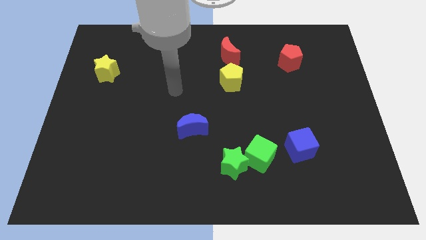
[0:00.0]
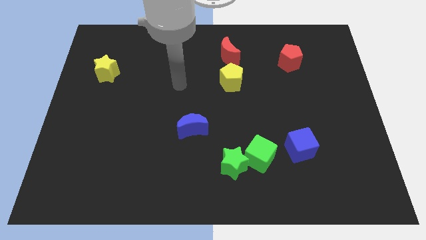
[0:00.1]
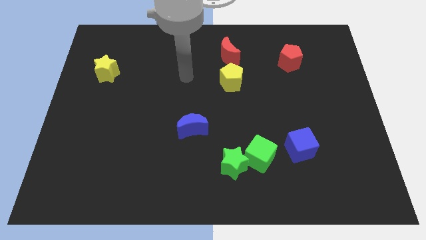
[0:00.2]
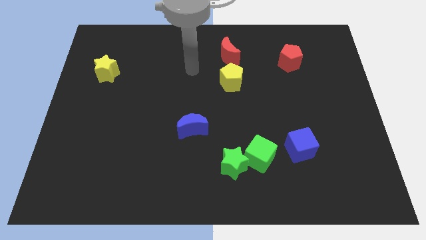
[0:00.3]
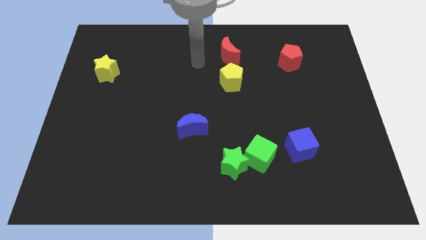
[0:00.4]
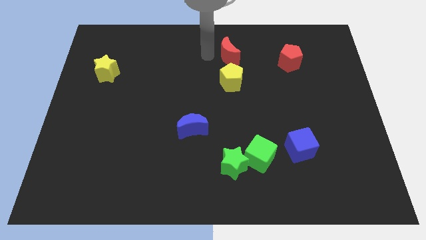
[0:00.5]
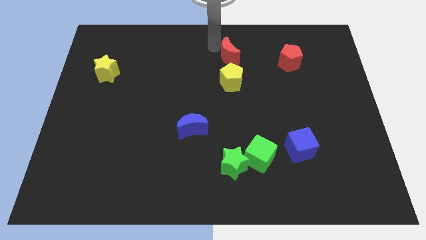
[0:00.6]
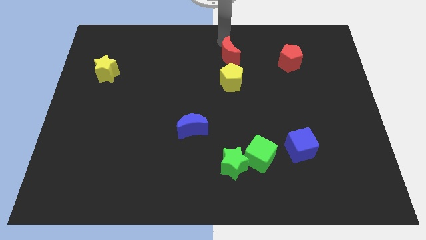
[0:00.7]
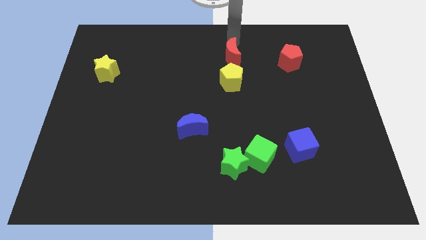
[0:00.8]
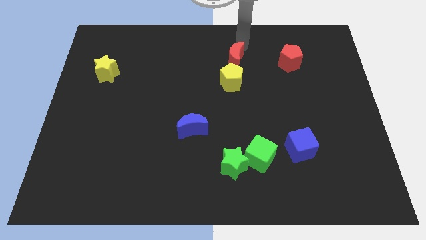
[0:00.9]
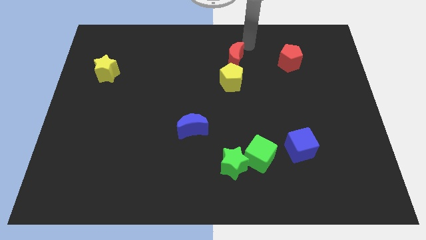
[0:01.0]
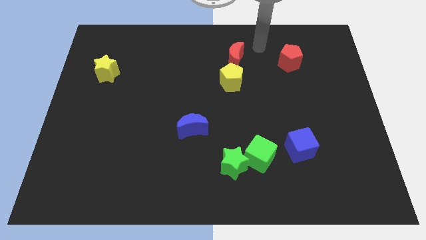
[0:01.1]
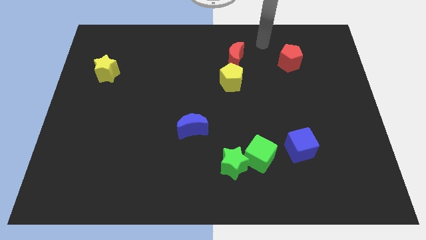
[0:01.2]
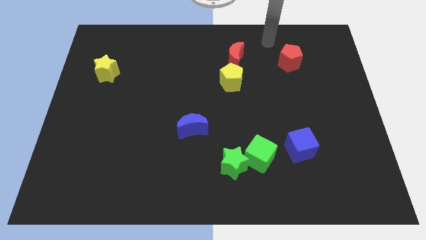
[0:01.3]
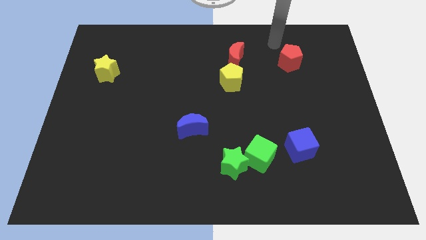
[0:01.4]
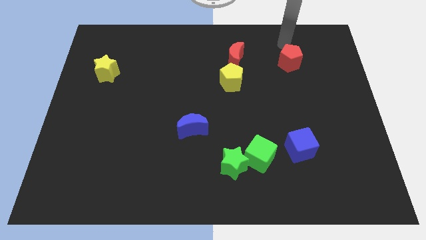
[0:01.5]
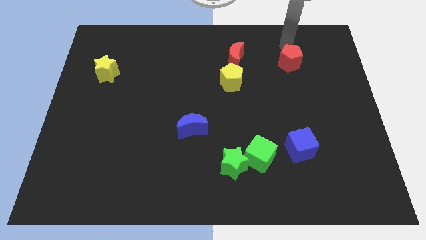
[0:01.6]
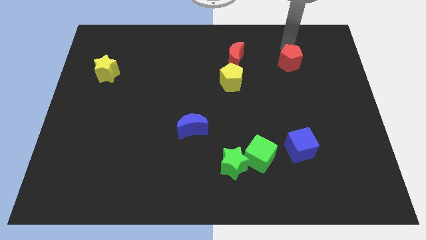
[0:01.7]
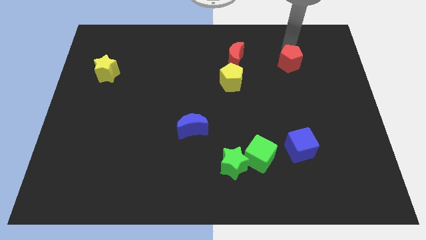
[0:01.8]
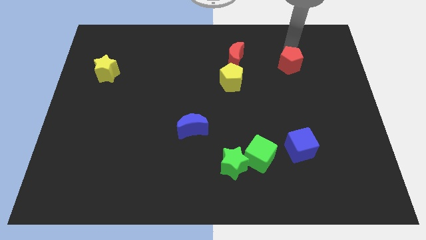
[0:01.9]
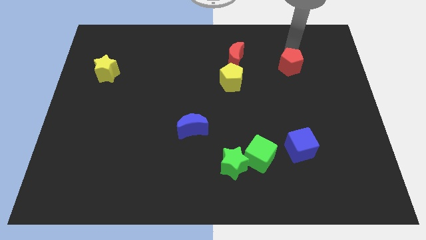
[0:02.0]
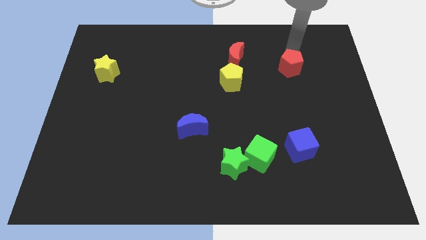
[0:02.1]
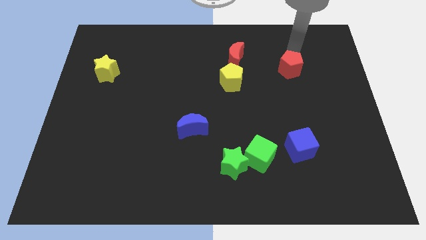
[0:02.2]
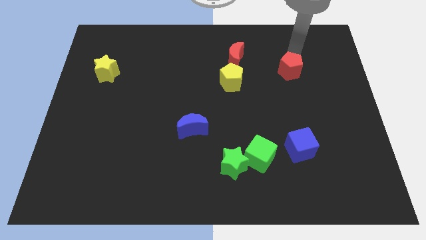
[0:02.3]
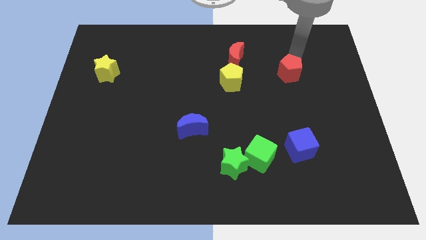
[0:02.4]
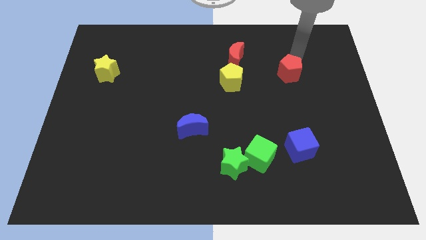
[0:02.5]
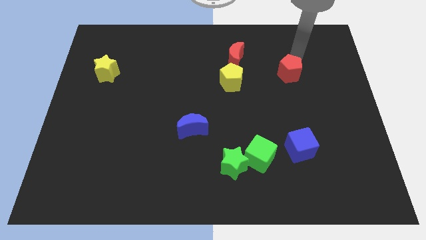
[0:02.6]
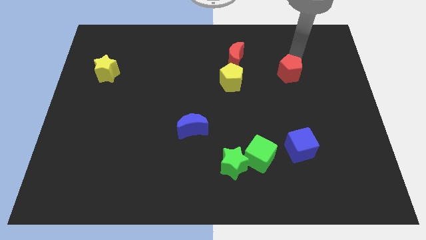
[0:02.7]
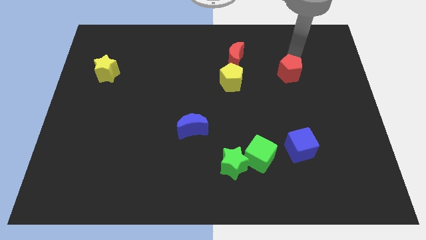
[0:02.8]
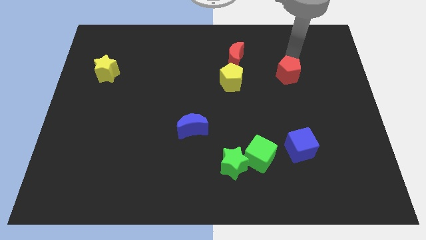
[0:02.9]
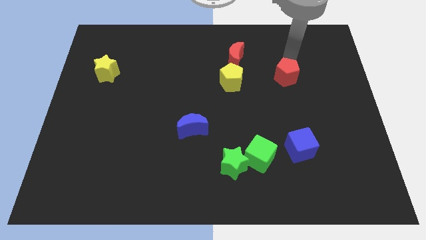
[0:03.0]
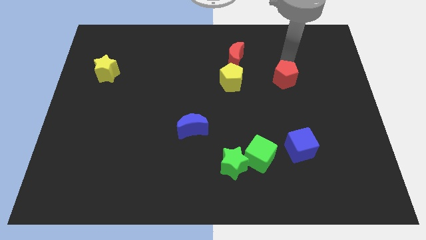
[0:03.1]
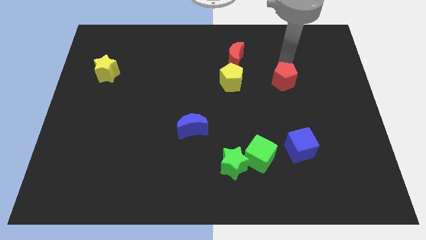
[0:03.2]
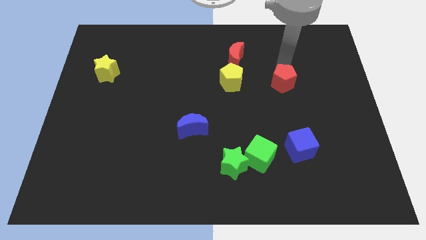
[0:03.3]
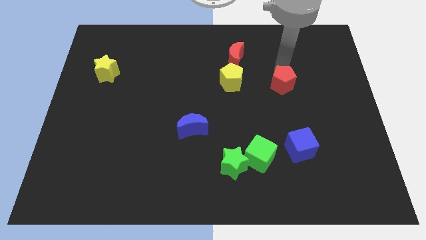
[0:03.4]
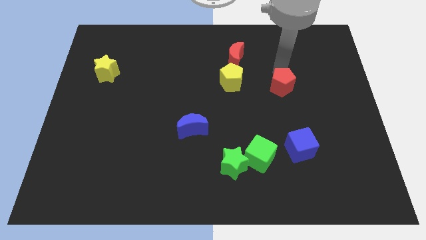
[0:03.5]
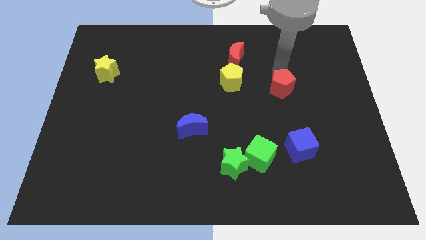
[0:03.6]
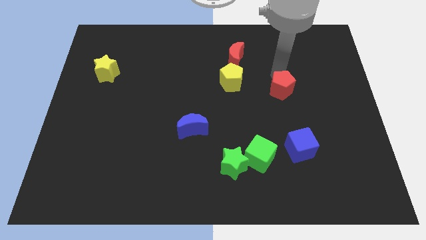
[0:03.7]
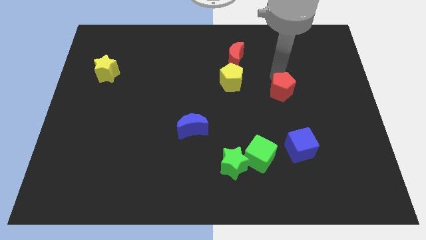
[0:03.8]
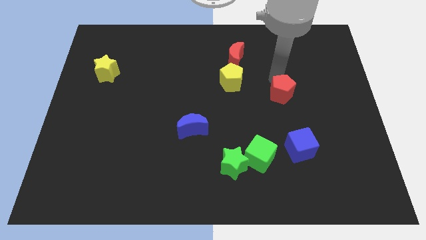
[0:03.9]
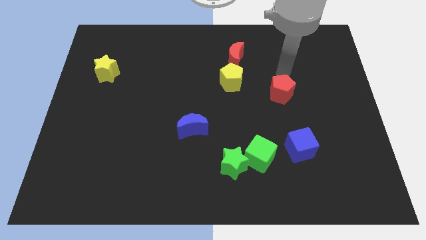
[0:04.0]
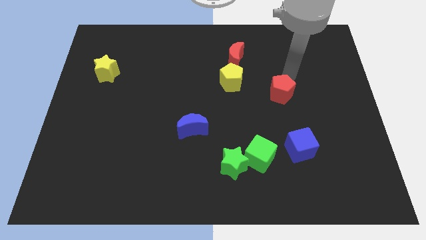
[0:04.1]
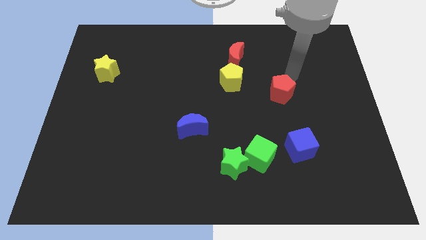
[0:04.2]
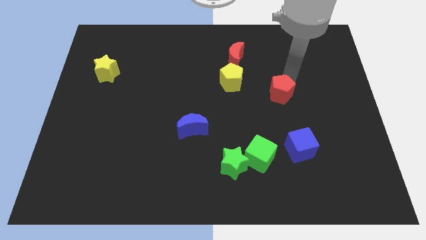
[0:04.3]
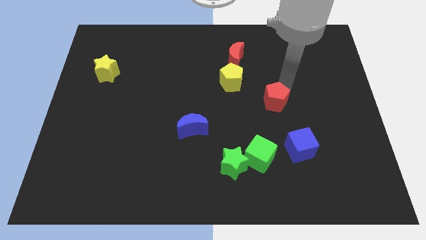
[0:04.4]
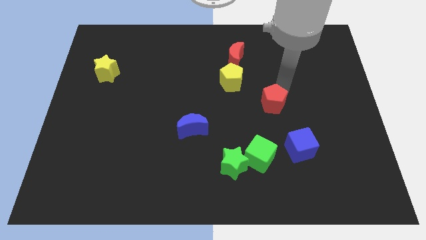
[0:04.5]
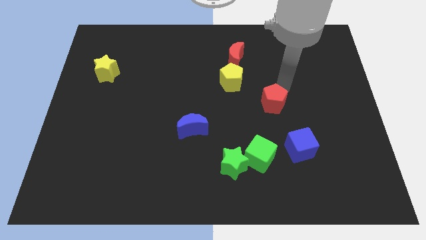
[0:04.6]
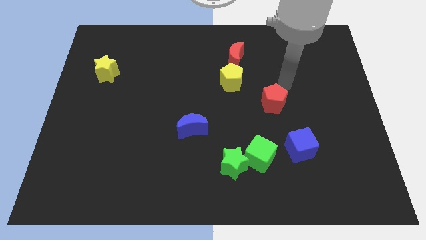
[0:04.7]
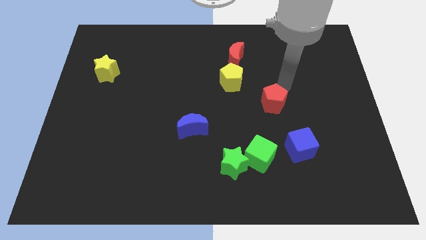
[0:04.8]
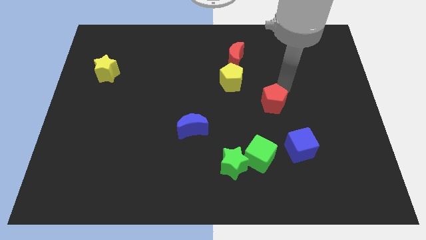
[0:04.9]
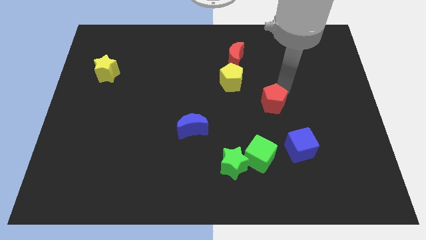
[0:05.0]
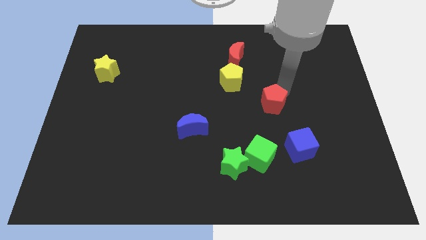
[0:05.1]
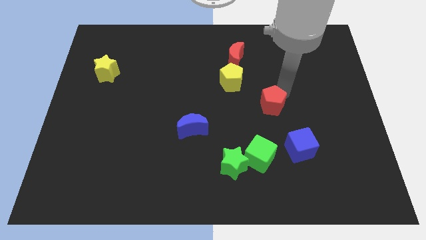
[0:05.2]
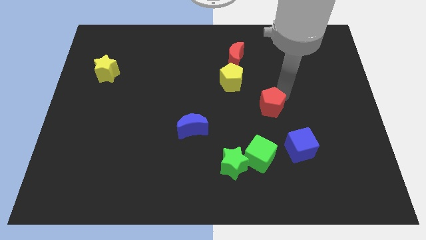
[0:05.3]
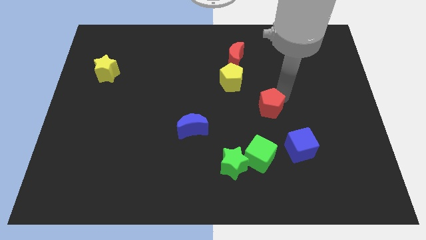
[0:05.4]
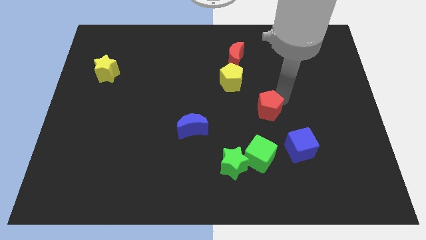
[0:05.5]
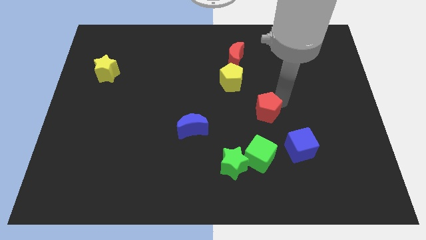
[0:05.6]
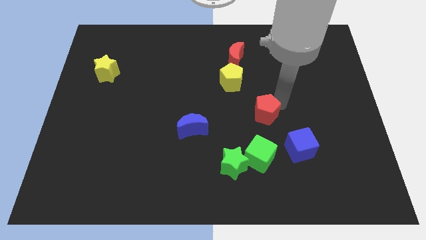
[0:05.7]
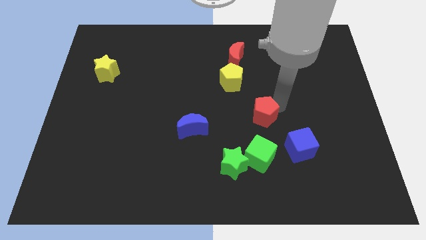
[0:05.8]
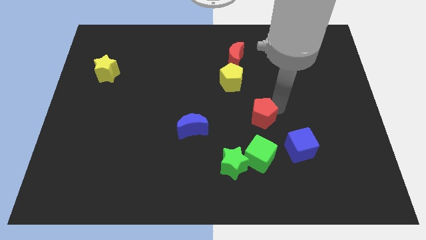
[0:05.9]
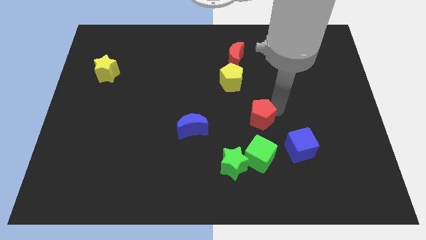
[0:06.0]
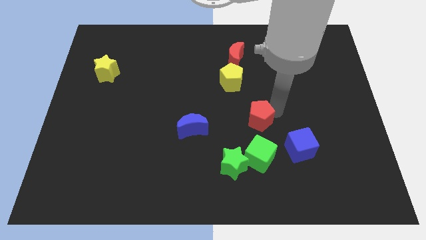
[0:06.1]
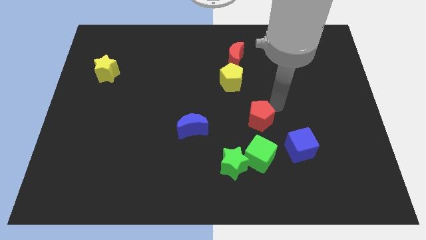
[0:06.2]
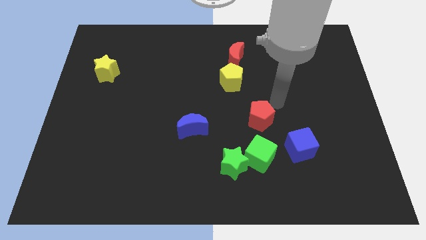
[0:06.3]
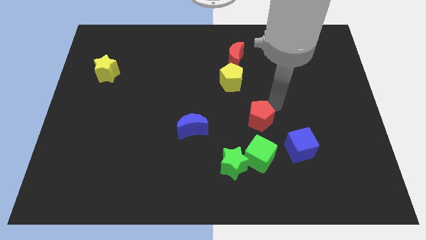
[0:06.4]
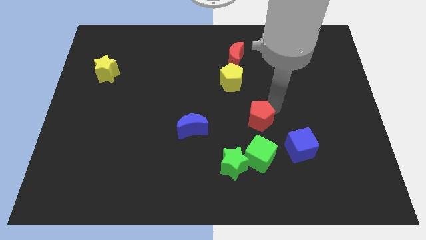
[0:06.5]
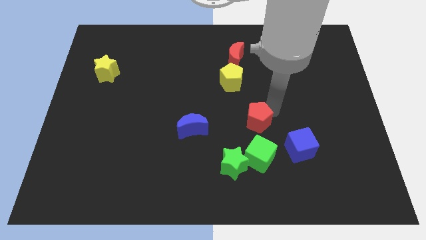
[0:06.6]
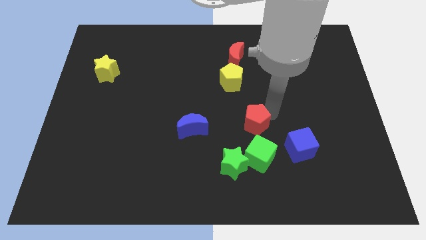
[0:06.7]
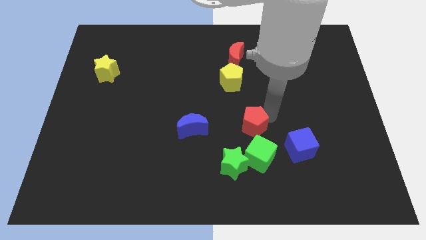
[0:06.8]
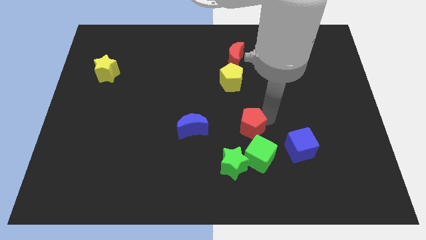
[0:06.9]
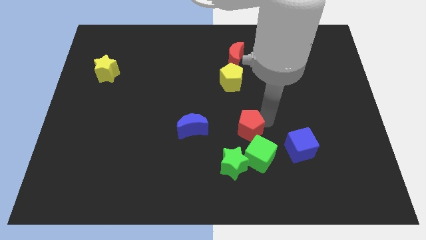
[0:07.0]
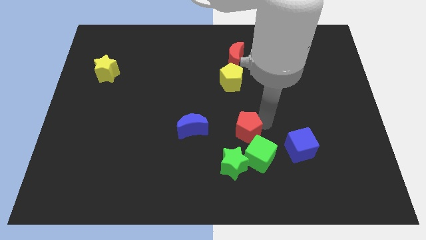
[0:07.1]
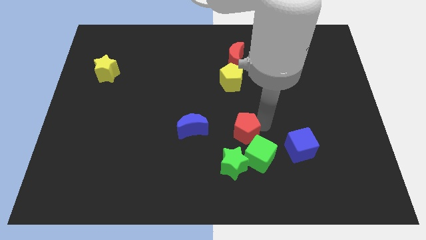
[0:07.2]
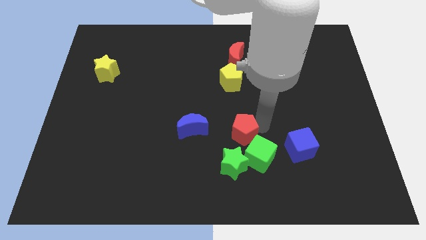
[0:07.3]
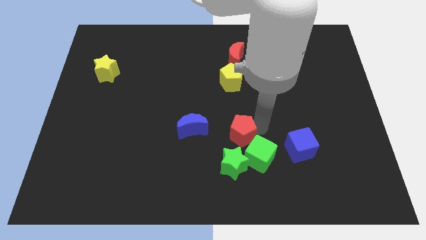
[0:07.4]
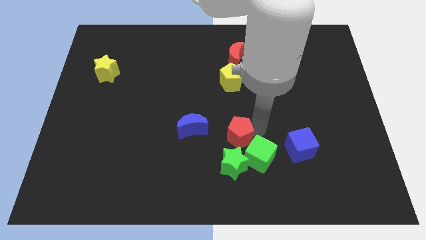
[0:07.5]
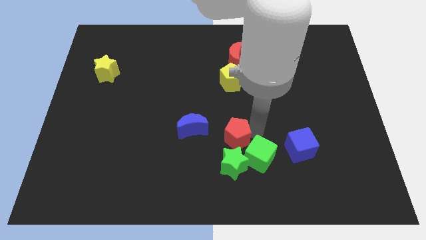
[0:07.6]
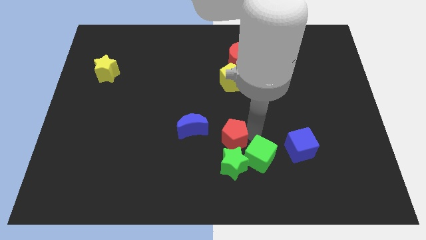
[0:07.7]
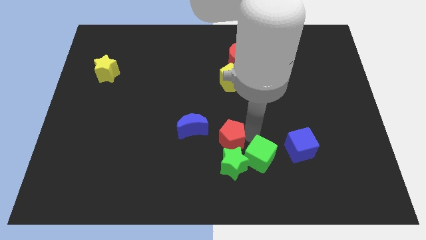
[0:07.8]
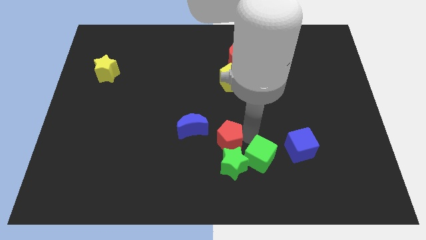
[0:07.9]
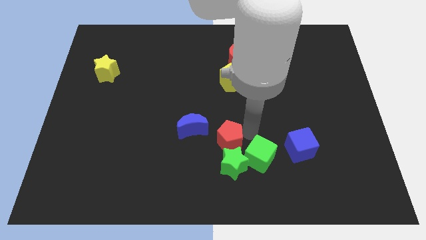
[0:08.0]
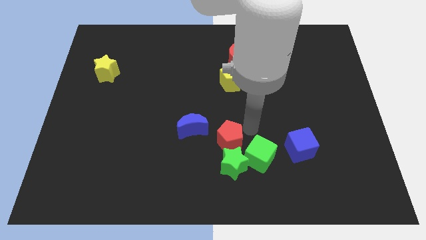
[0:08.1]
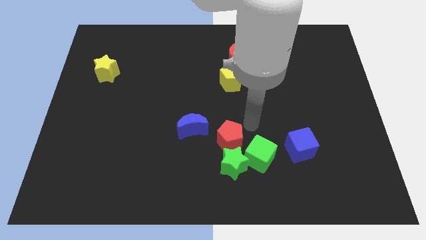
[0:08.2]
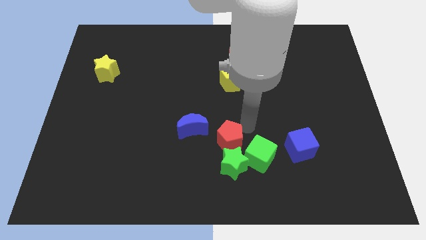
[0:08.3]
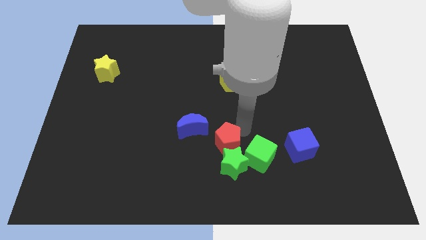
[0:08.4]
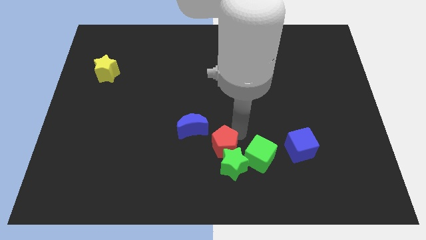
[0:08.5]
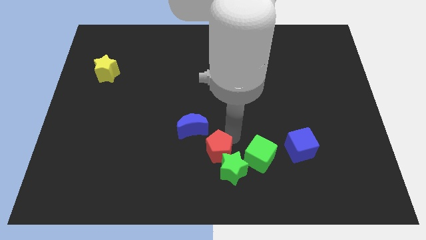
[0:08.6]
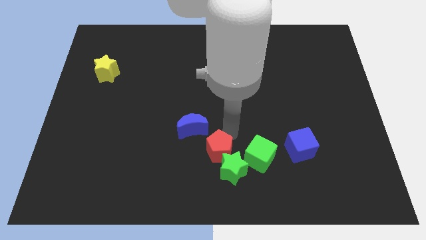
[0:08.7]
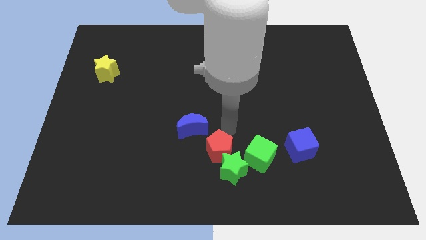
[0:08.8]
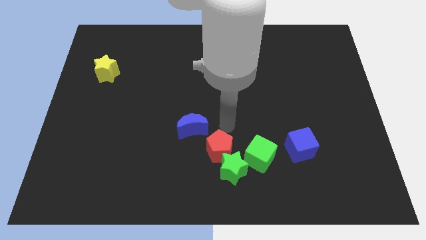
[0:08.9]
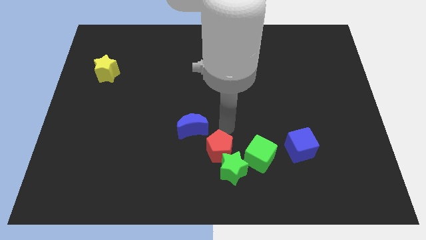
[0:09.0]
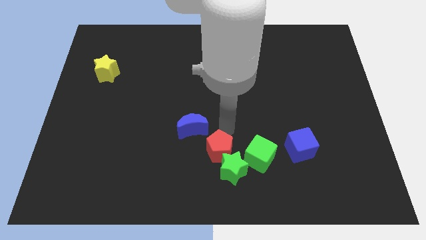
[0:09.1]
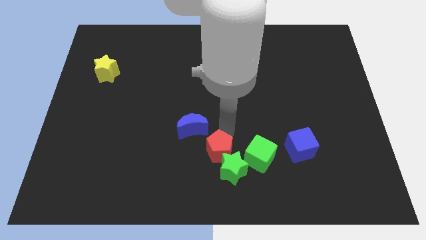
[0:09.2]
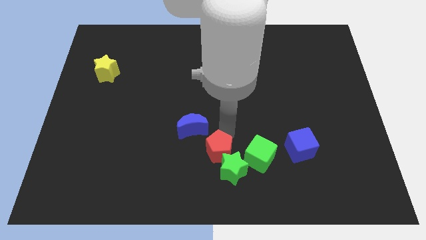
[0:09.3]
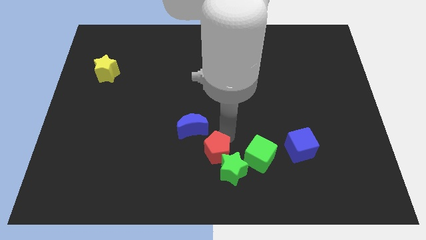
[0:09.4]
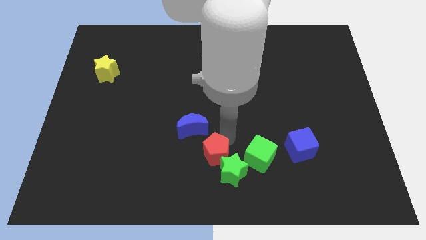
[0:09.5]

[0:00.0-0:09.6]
put the red pentagon to the bottom
